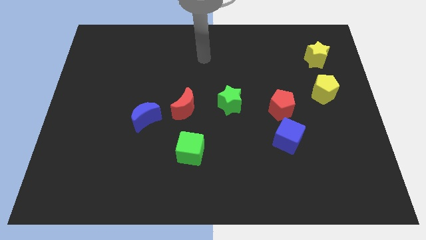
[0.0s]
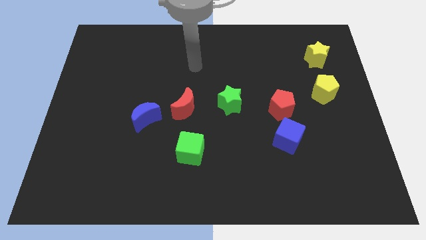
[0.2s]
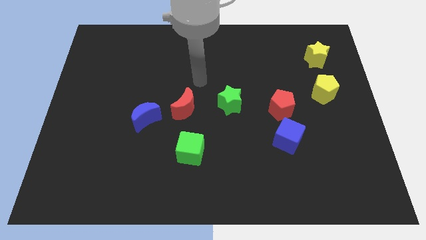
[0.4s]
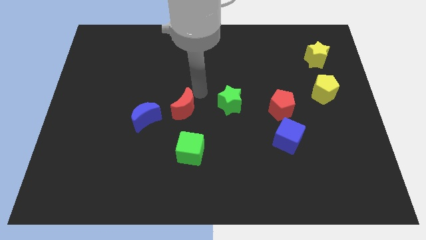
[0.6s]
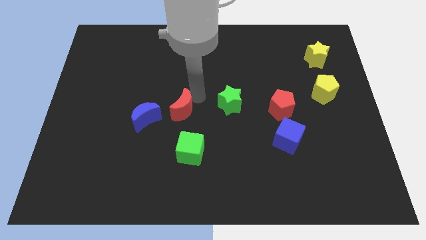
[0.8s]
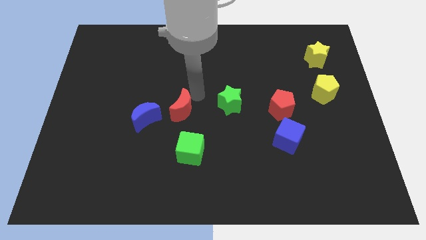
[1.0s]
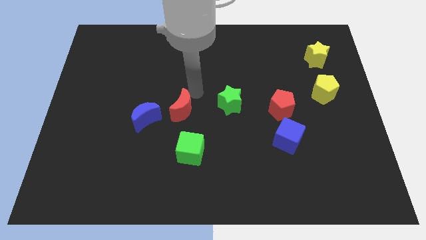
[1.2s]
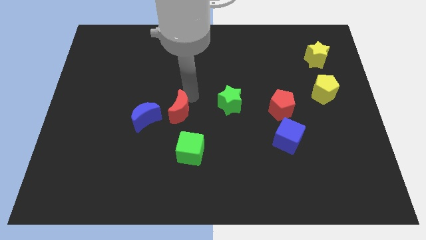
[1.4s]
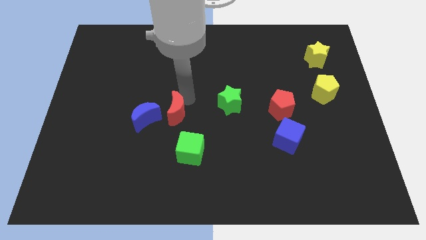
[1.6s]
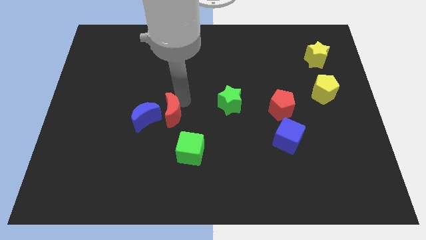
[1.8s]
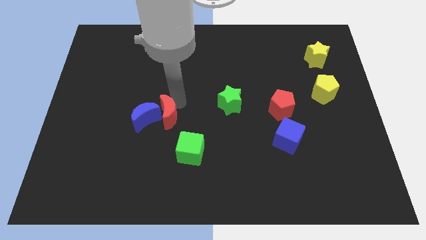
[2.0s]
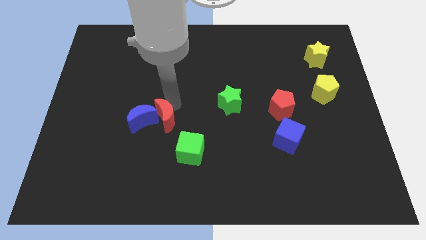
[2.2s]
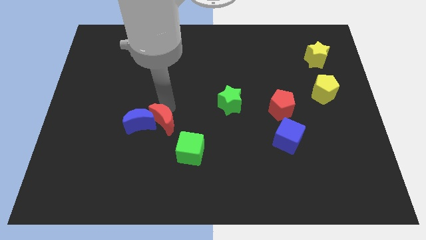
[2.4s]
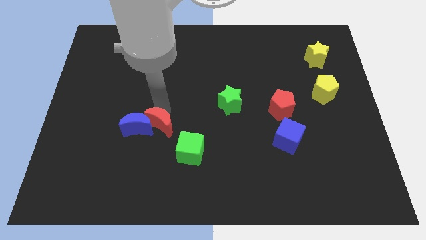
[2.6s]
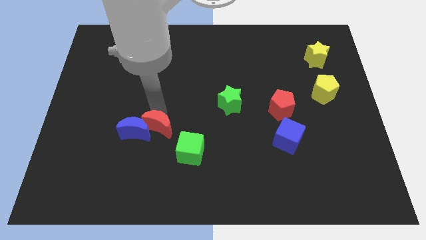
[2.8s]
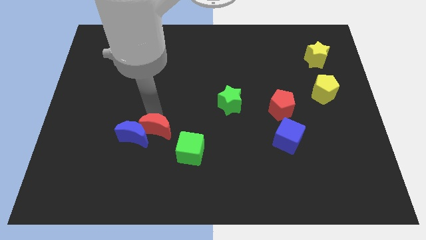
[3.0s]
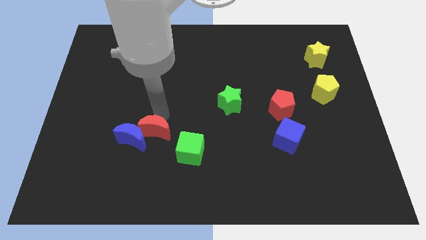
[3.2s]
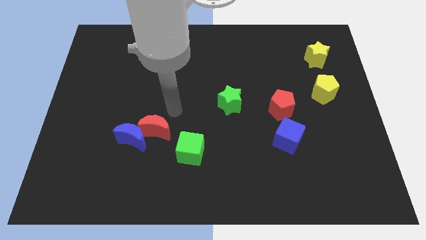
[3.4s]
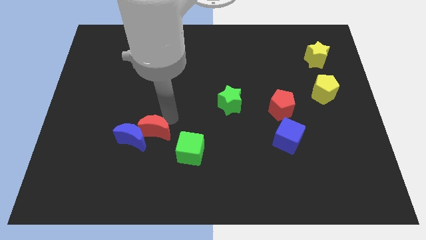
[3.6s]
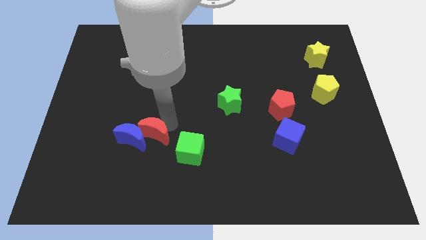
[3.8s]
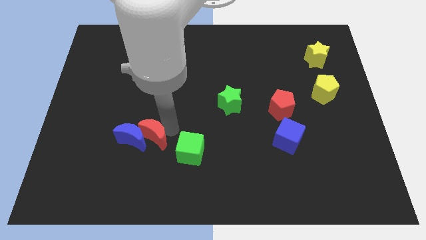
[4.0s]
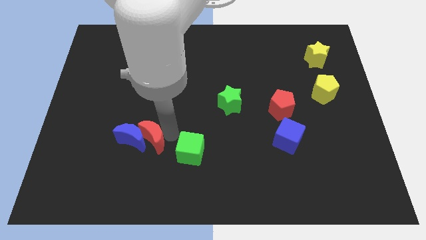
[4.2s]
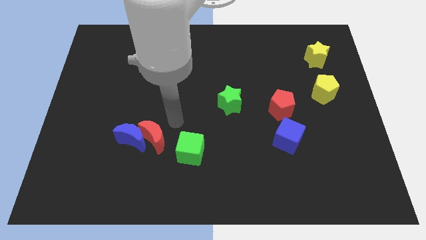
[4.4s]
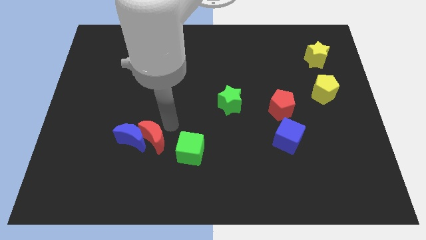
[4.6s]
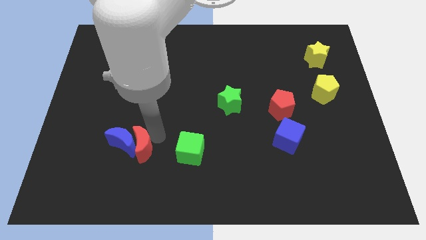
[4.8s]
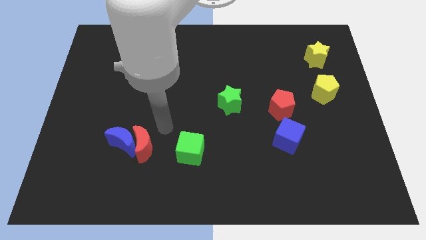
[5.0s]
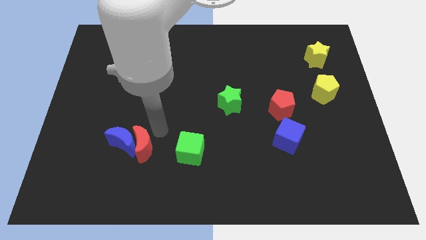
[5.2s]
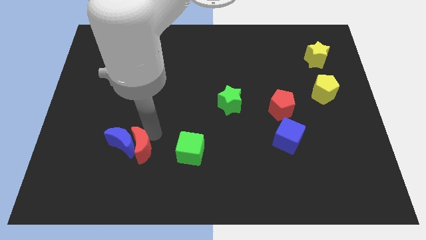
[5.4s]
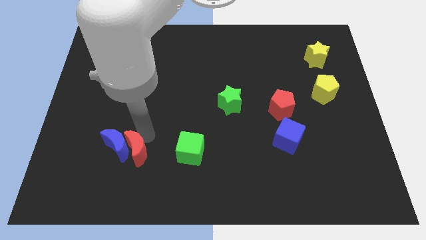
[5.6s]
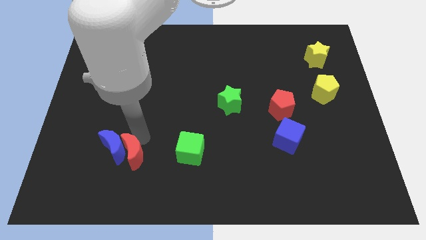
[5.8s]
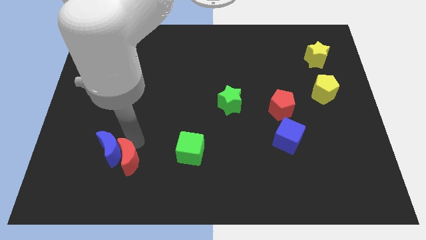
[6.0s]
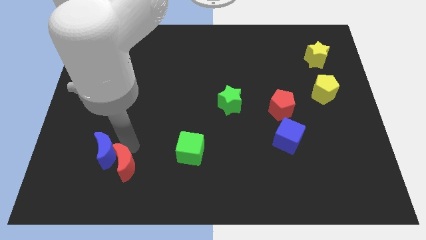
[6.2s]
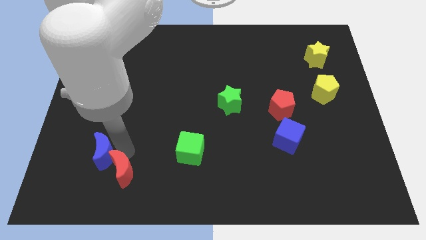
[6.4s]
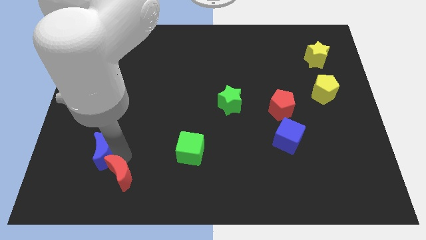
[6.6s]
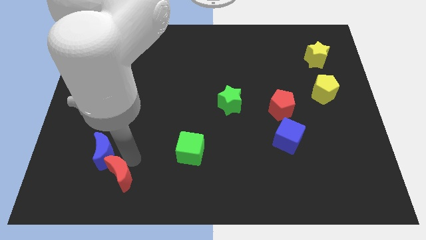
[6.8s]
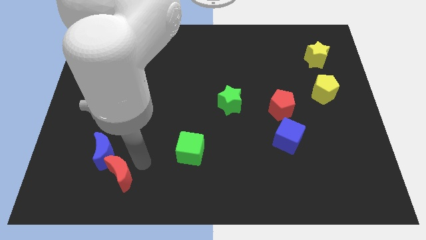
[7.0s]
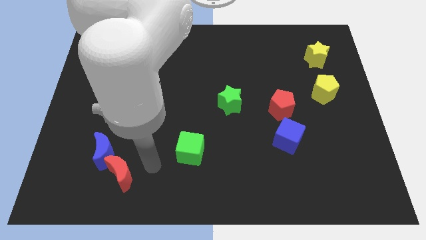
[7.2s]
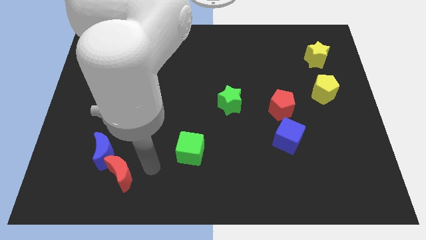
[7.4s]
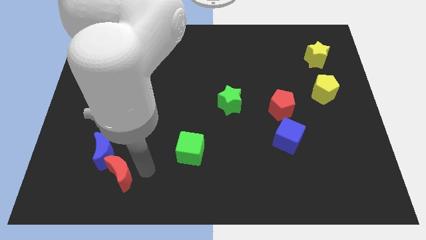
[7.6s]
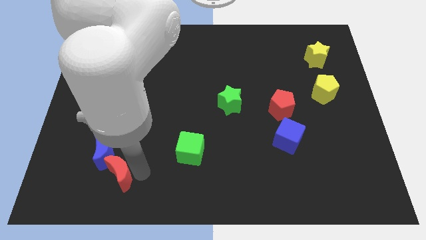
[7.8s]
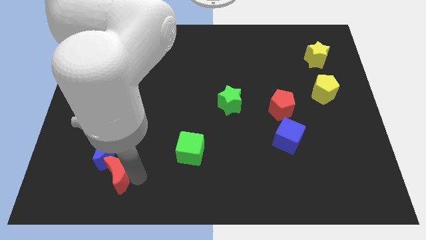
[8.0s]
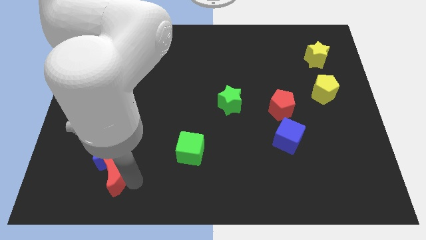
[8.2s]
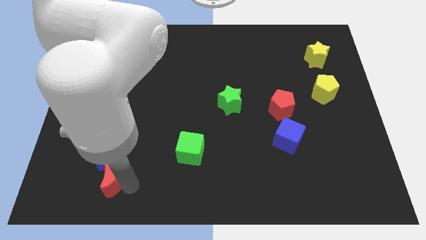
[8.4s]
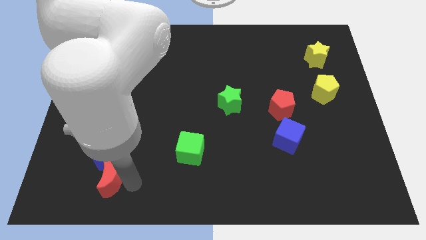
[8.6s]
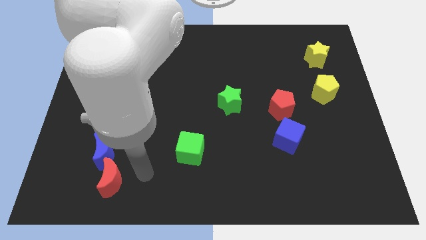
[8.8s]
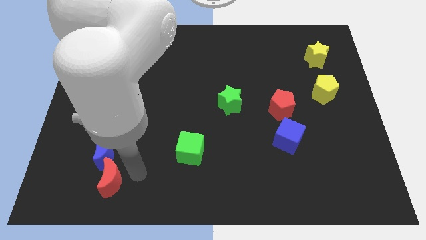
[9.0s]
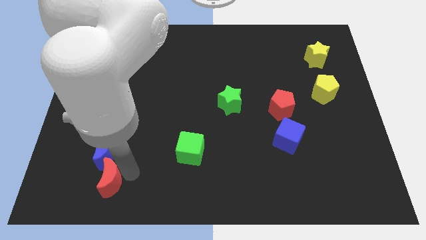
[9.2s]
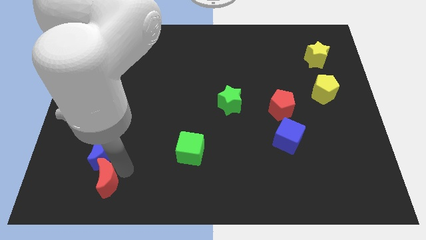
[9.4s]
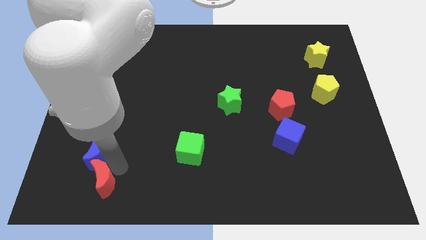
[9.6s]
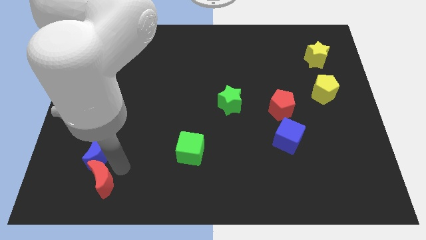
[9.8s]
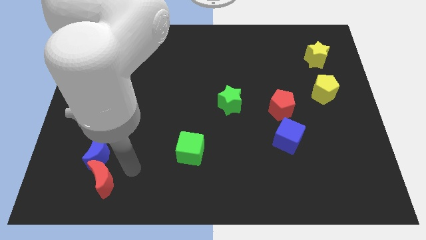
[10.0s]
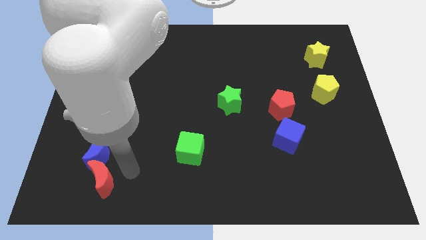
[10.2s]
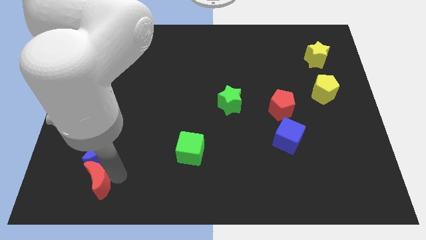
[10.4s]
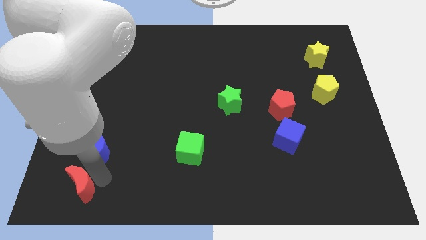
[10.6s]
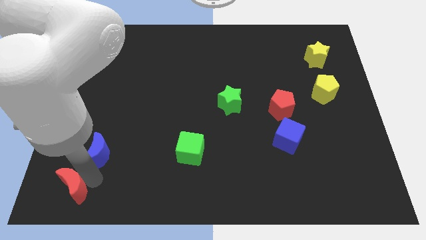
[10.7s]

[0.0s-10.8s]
slide the red moon to the bottom left corner

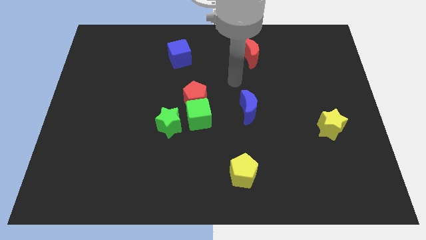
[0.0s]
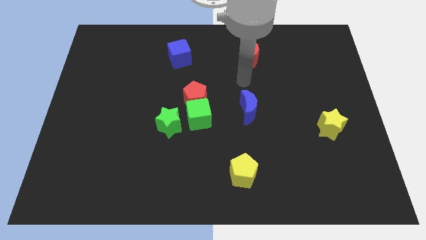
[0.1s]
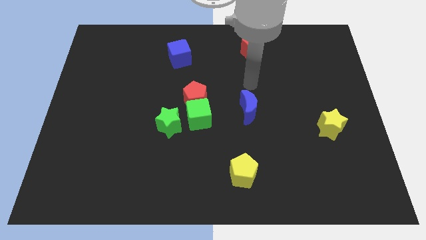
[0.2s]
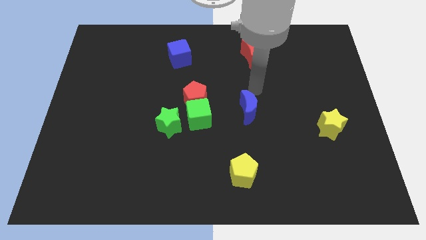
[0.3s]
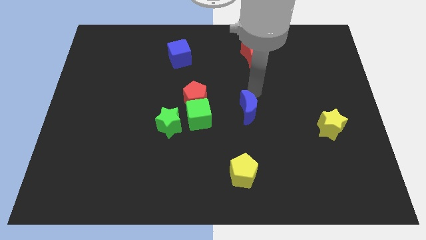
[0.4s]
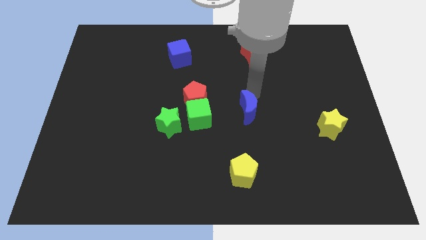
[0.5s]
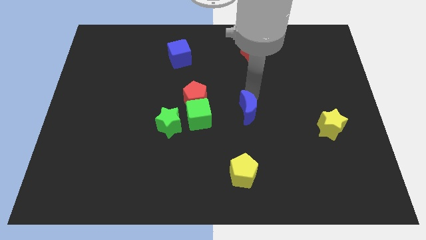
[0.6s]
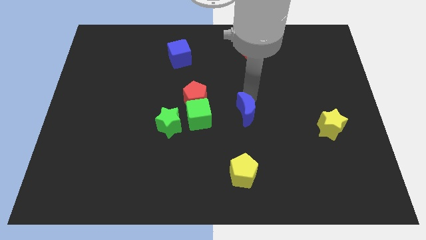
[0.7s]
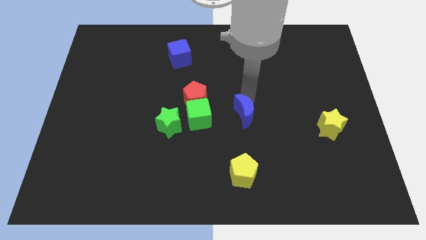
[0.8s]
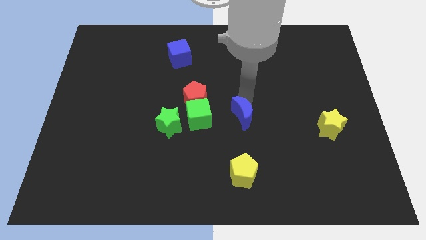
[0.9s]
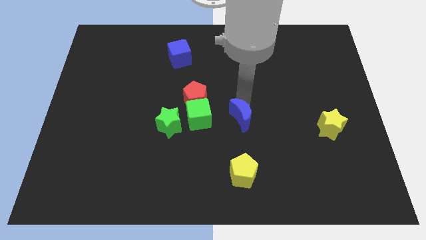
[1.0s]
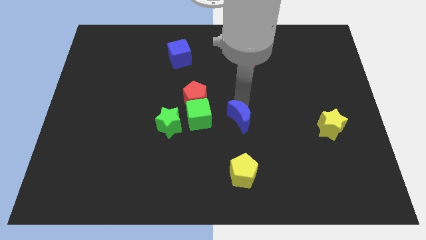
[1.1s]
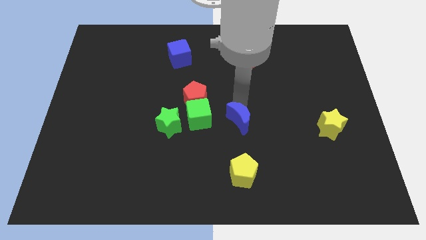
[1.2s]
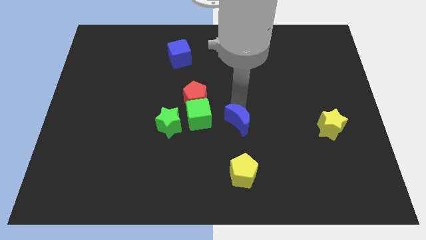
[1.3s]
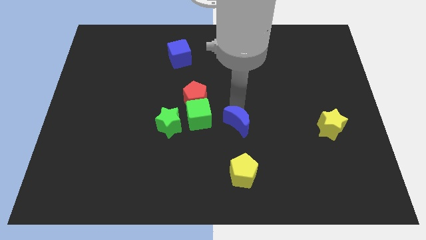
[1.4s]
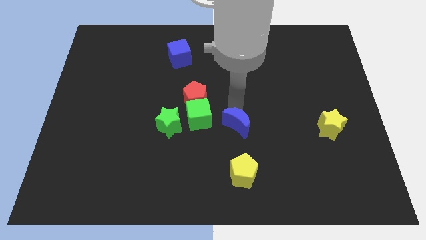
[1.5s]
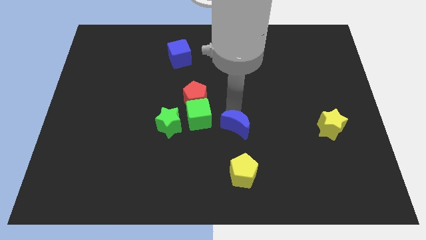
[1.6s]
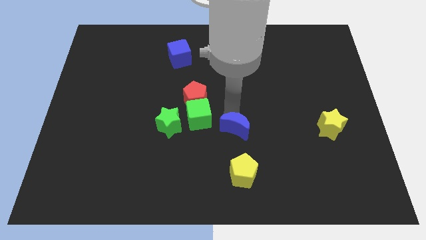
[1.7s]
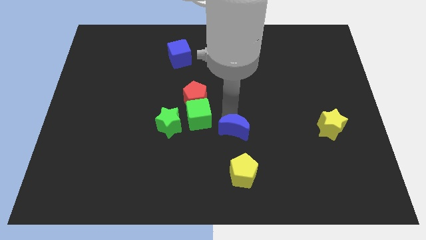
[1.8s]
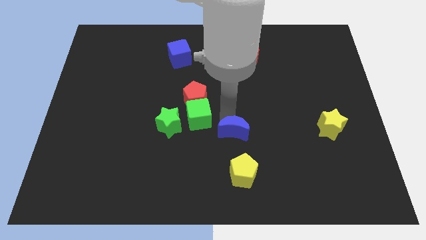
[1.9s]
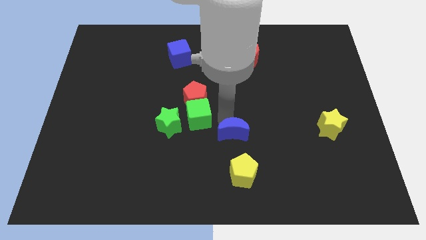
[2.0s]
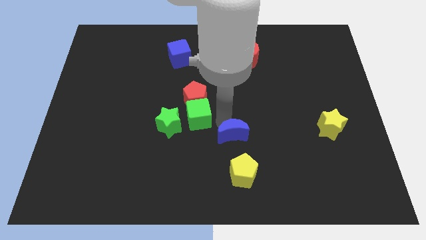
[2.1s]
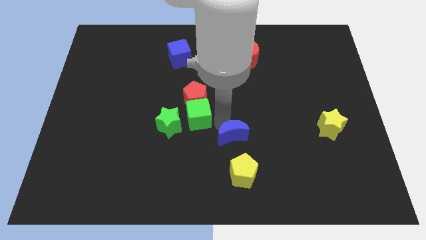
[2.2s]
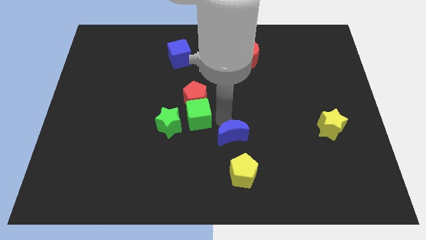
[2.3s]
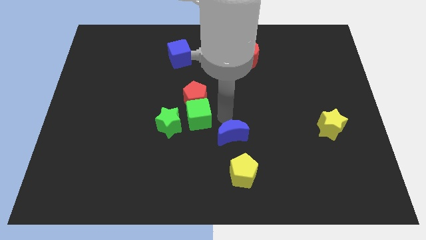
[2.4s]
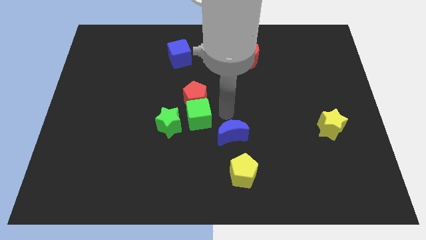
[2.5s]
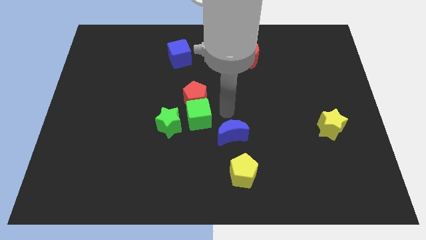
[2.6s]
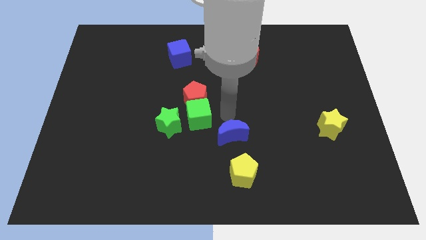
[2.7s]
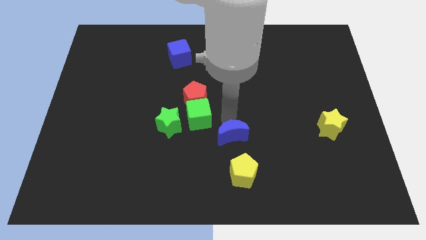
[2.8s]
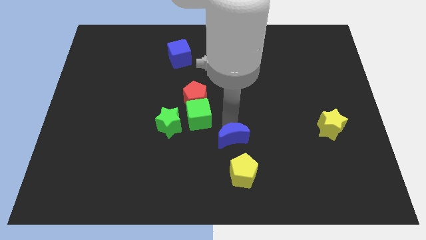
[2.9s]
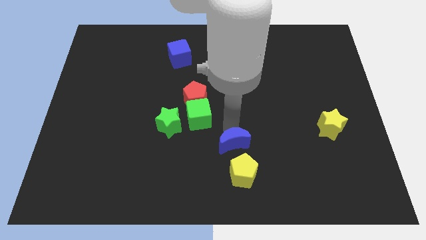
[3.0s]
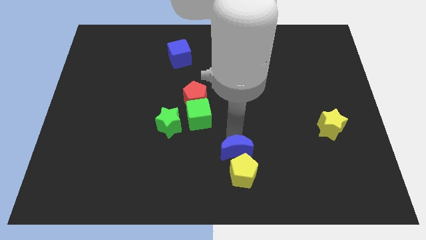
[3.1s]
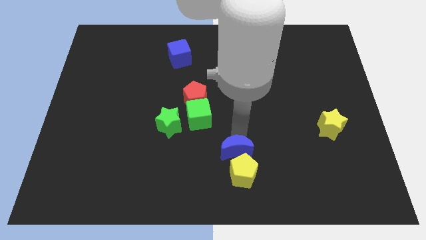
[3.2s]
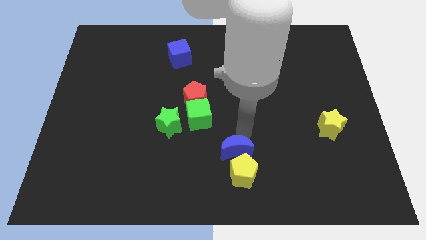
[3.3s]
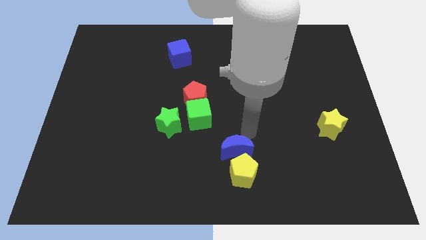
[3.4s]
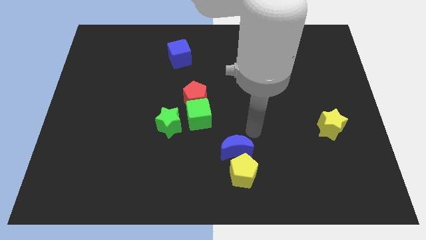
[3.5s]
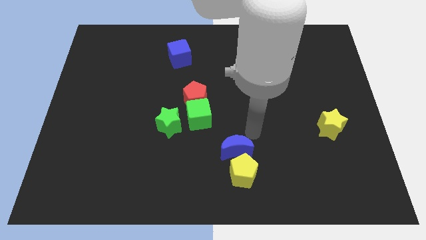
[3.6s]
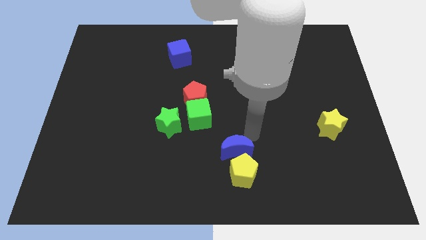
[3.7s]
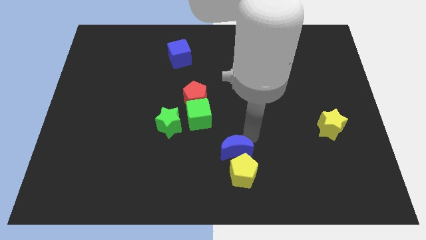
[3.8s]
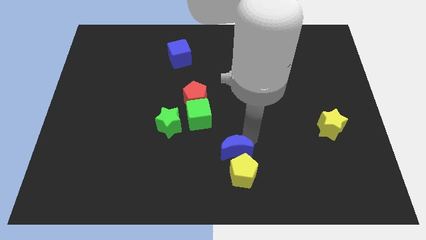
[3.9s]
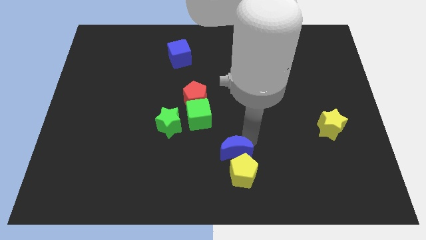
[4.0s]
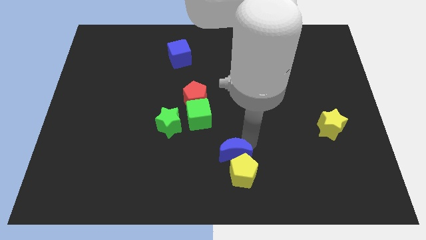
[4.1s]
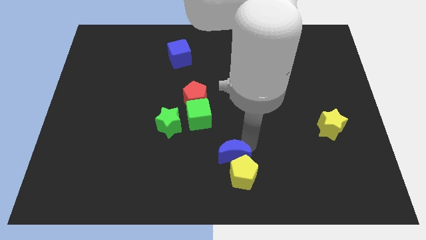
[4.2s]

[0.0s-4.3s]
slide the blue moon to the bottom side
